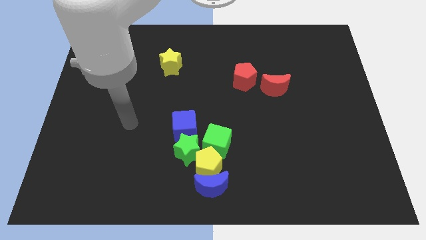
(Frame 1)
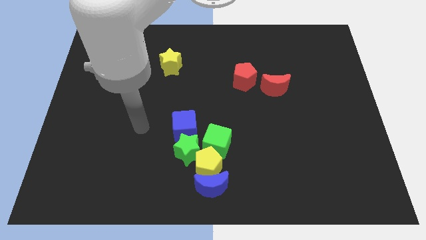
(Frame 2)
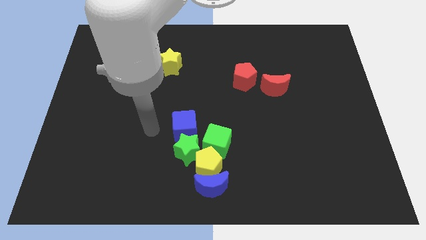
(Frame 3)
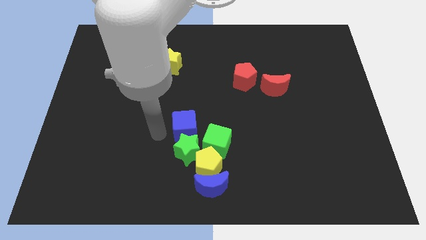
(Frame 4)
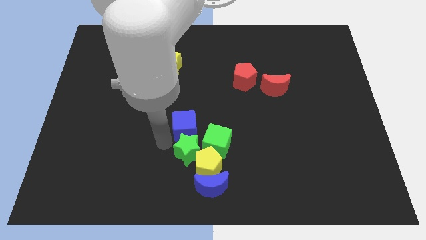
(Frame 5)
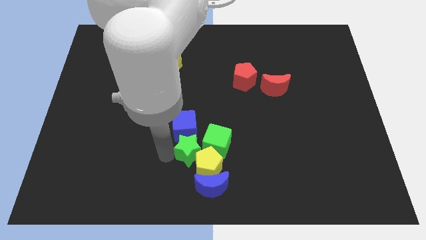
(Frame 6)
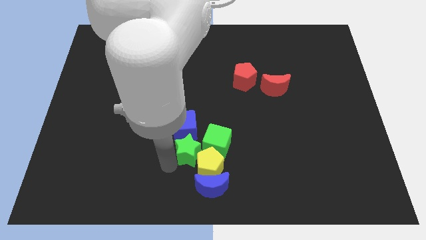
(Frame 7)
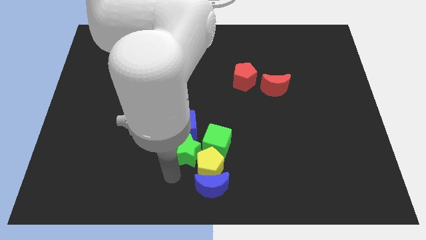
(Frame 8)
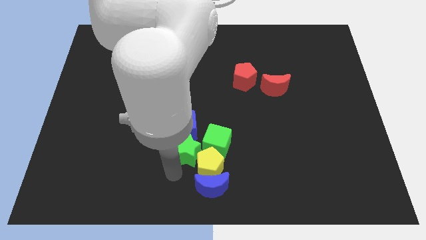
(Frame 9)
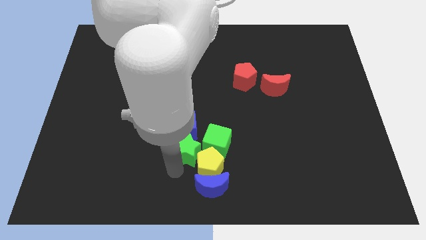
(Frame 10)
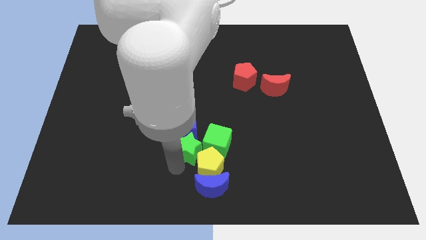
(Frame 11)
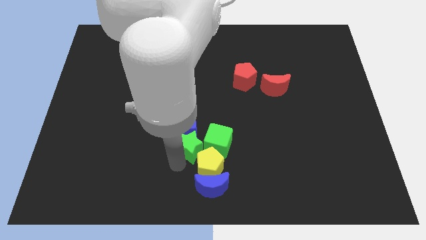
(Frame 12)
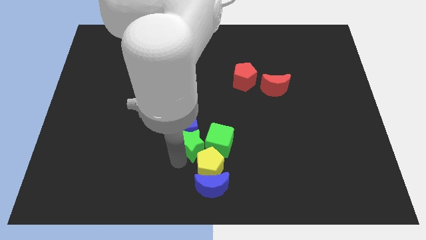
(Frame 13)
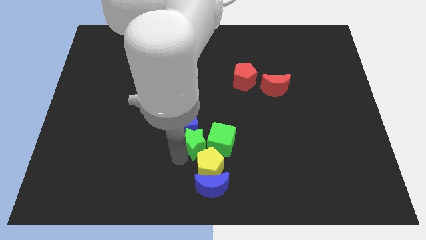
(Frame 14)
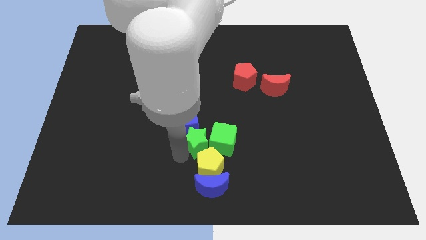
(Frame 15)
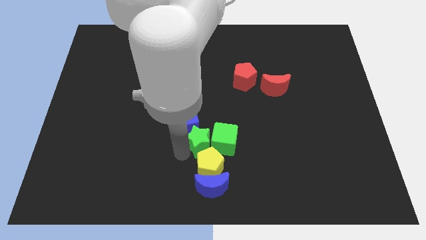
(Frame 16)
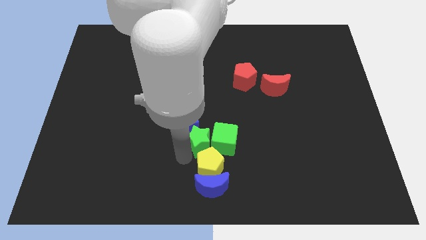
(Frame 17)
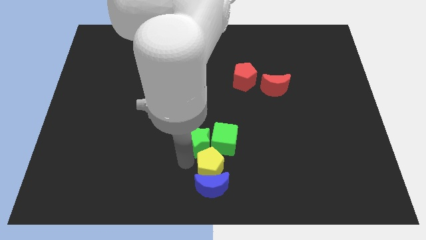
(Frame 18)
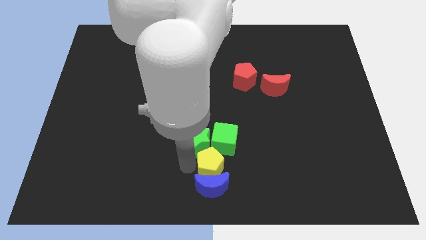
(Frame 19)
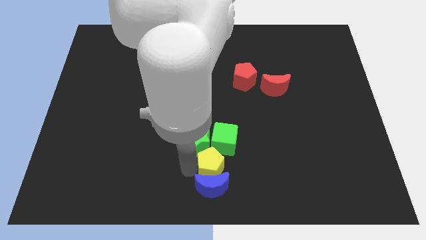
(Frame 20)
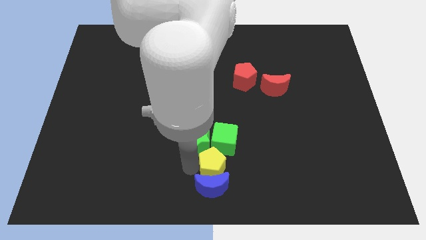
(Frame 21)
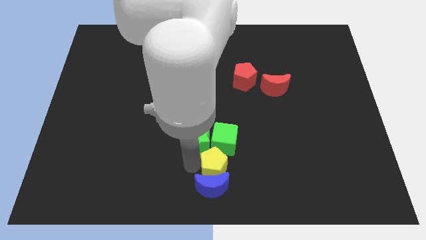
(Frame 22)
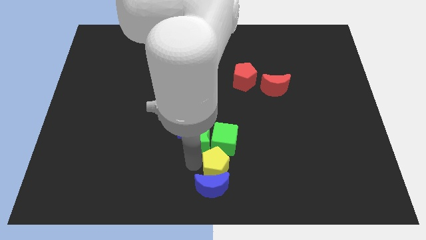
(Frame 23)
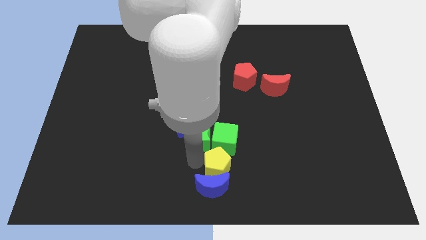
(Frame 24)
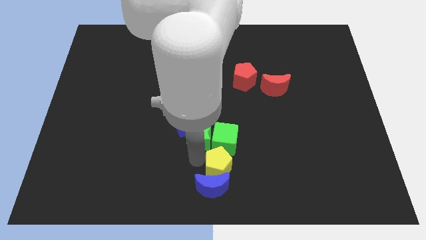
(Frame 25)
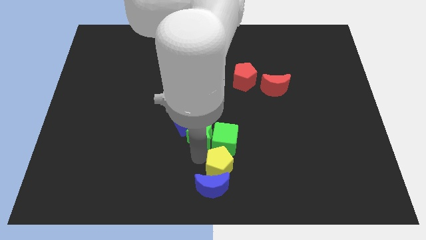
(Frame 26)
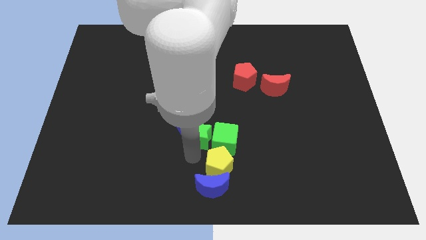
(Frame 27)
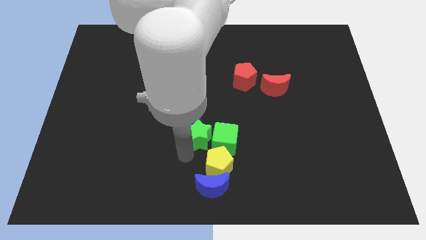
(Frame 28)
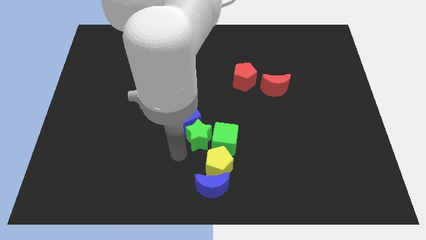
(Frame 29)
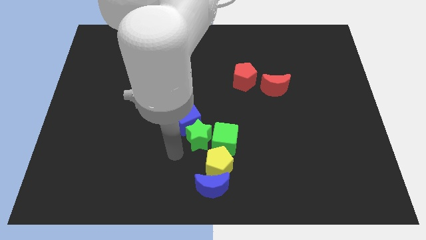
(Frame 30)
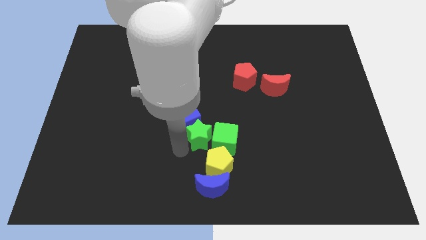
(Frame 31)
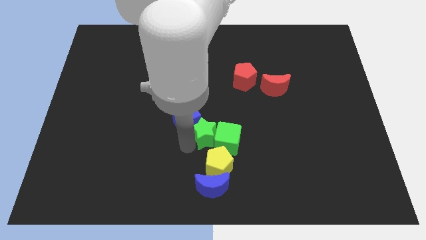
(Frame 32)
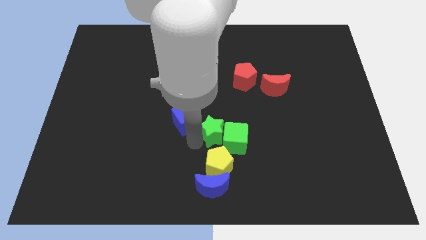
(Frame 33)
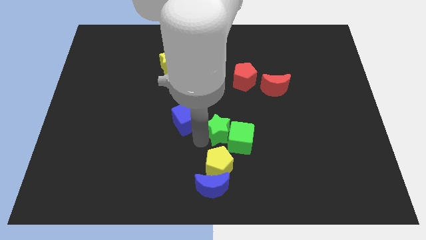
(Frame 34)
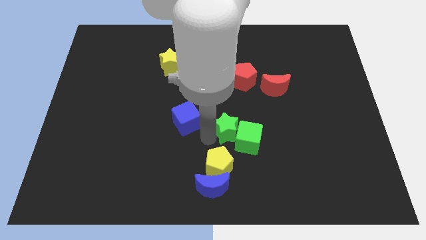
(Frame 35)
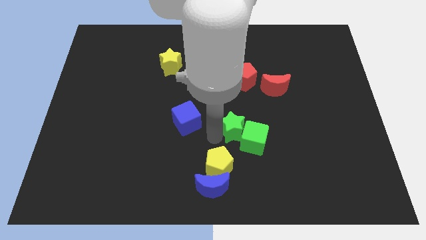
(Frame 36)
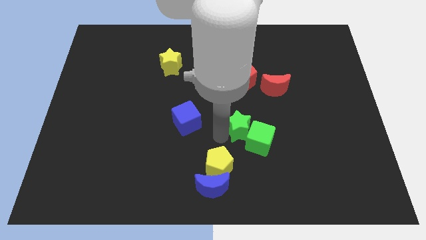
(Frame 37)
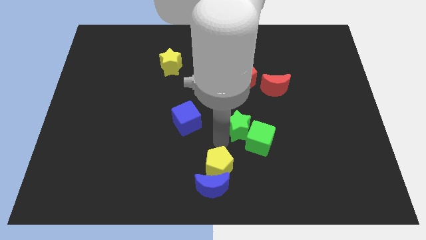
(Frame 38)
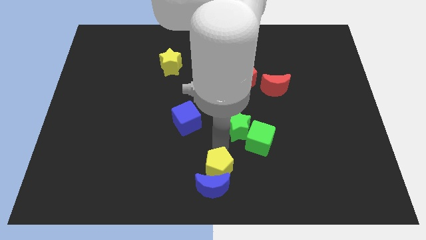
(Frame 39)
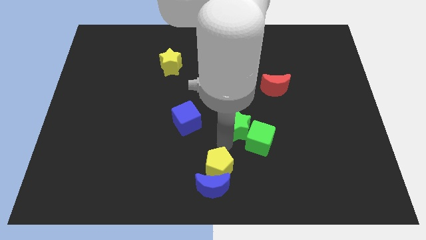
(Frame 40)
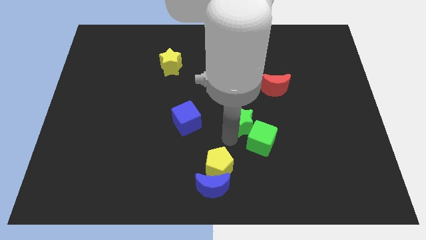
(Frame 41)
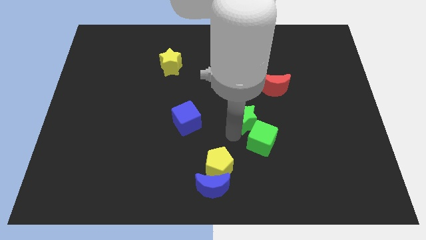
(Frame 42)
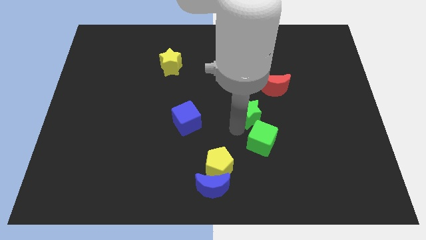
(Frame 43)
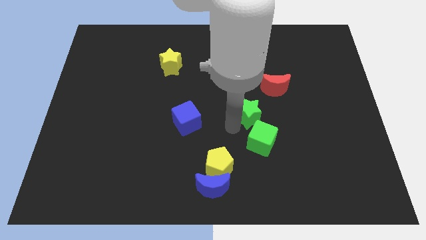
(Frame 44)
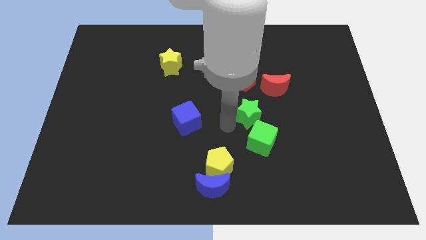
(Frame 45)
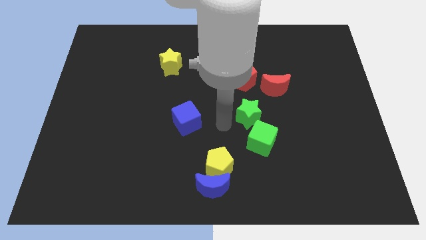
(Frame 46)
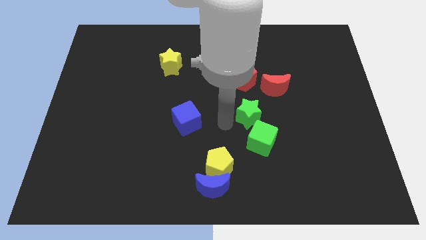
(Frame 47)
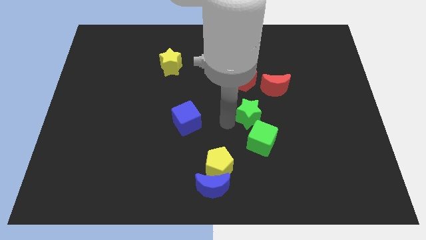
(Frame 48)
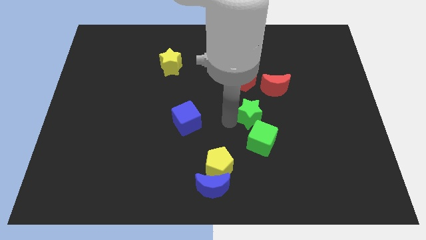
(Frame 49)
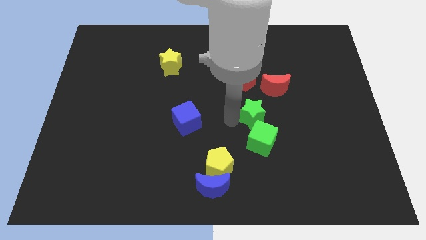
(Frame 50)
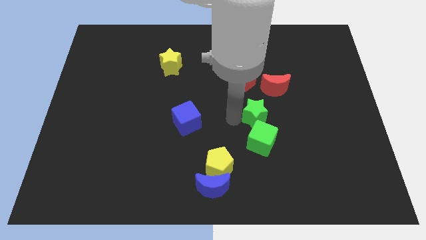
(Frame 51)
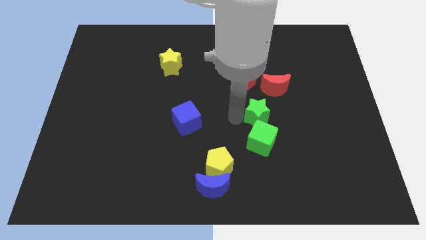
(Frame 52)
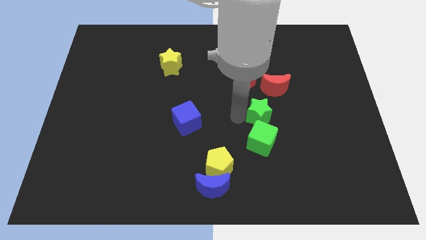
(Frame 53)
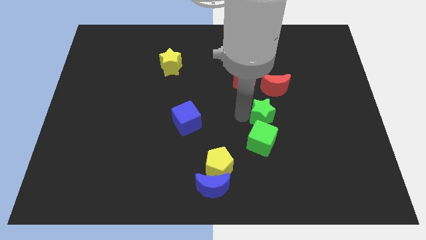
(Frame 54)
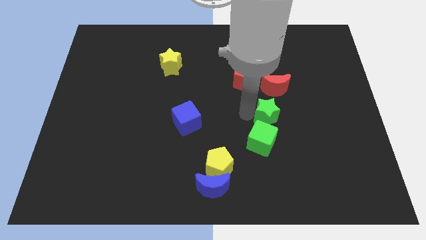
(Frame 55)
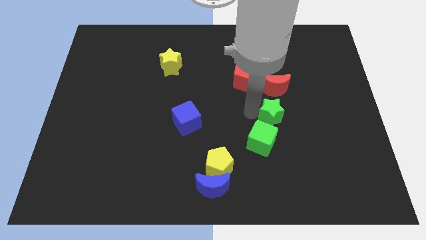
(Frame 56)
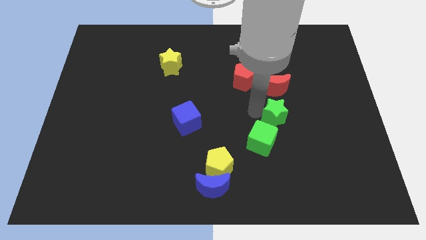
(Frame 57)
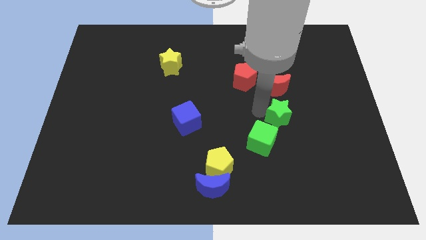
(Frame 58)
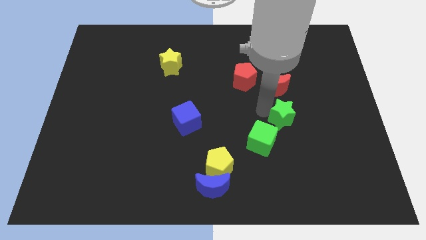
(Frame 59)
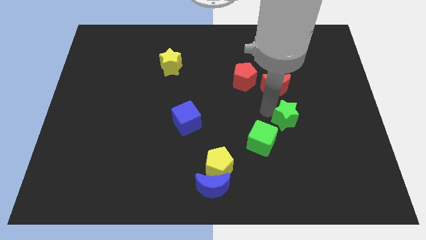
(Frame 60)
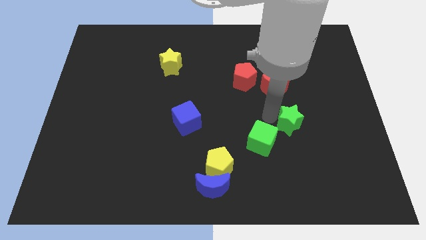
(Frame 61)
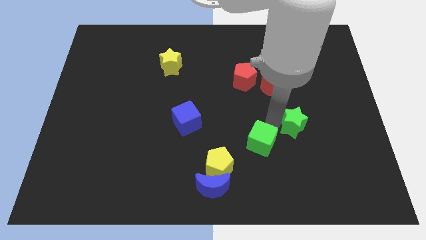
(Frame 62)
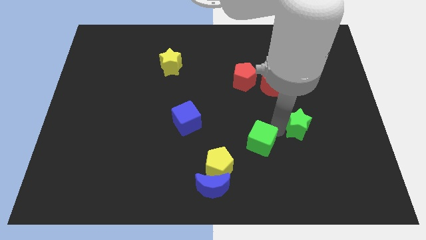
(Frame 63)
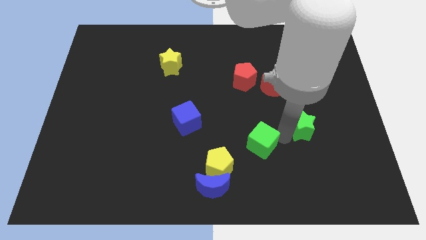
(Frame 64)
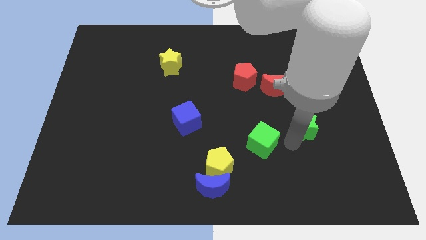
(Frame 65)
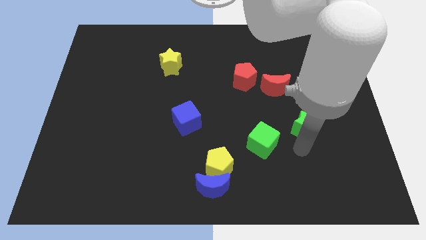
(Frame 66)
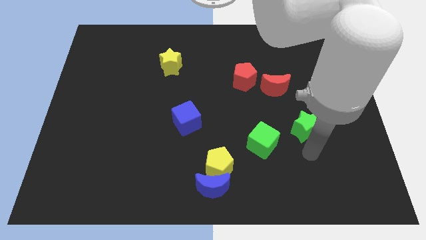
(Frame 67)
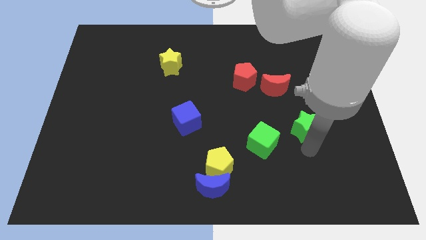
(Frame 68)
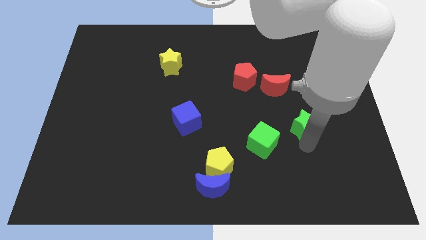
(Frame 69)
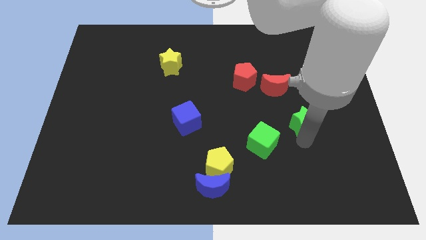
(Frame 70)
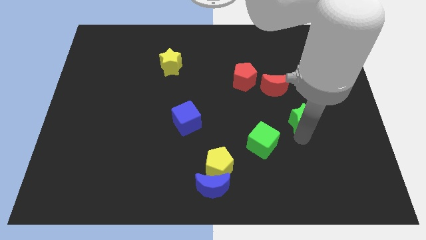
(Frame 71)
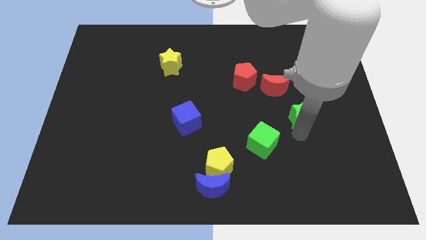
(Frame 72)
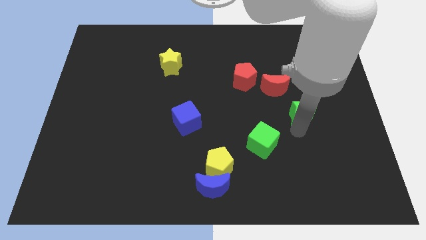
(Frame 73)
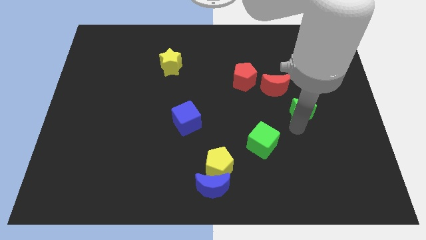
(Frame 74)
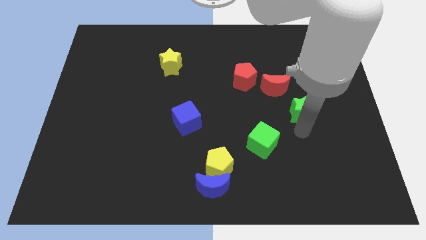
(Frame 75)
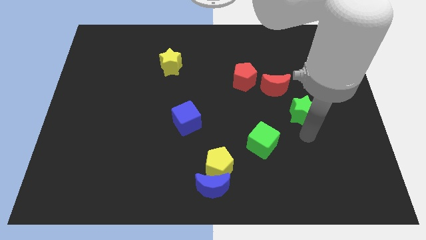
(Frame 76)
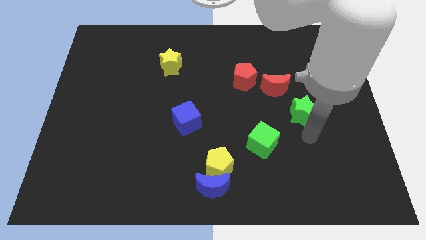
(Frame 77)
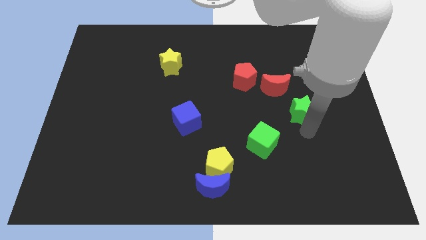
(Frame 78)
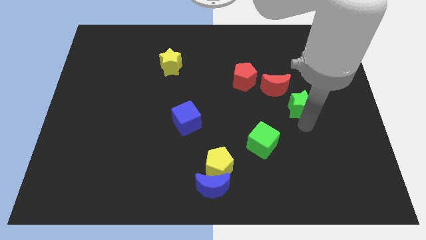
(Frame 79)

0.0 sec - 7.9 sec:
move the green star diagonally up and right
